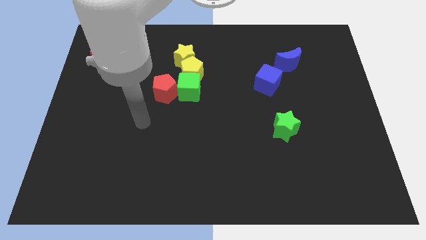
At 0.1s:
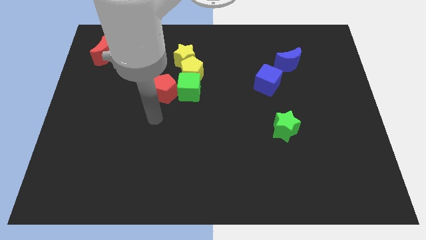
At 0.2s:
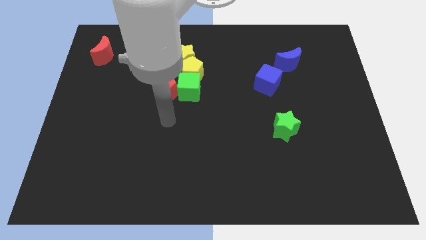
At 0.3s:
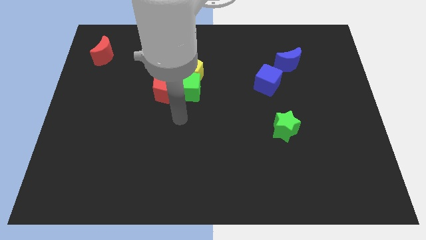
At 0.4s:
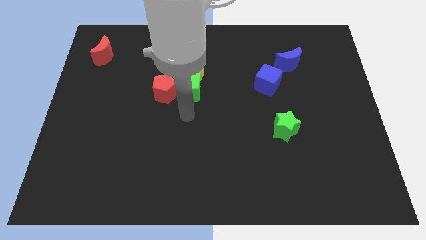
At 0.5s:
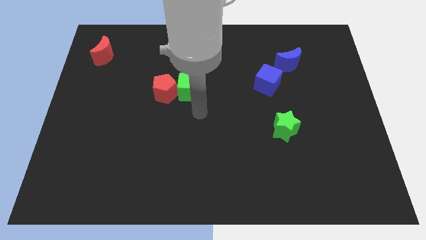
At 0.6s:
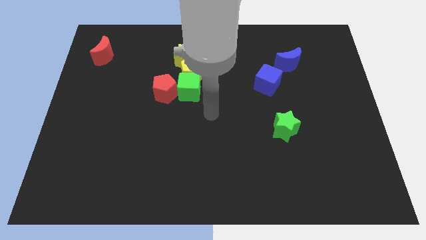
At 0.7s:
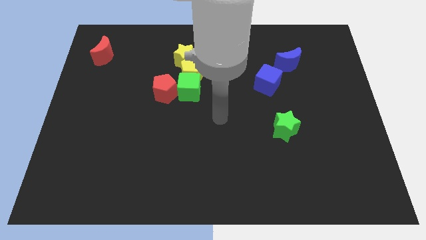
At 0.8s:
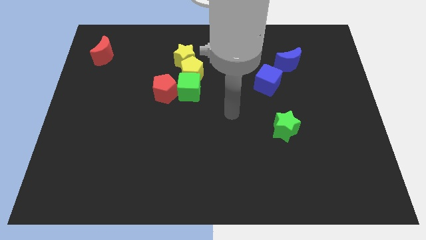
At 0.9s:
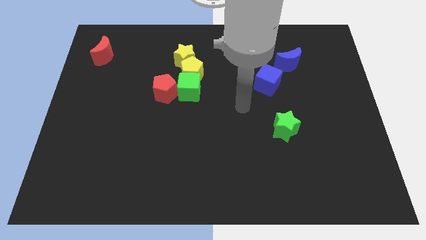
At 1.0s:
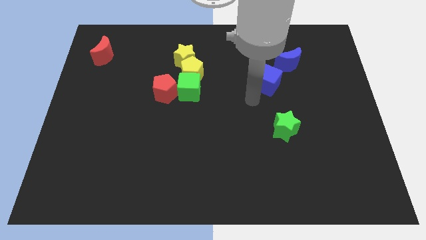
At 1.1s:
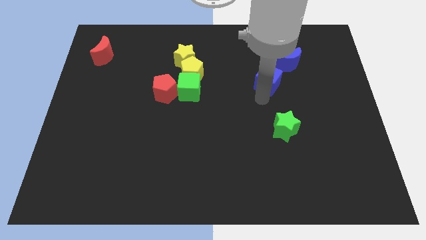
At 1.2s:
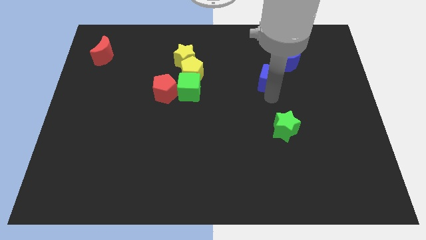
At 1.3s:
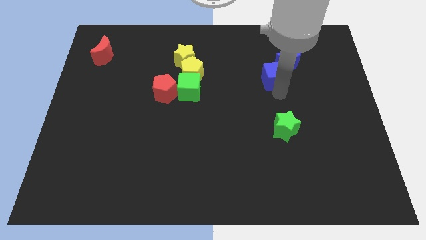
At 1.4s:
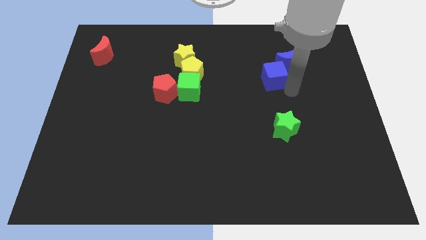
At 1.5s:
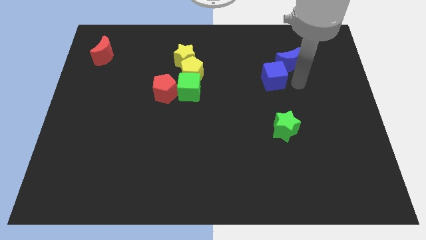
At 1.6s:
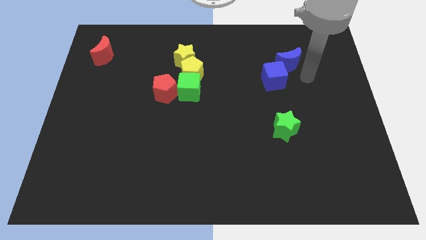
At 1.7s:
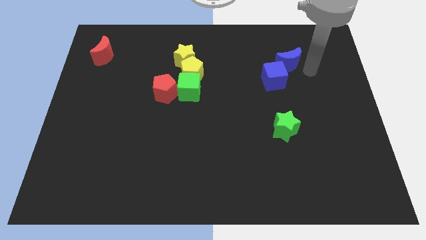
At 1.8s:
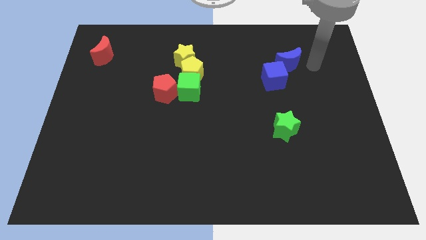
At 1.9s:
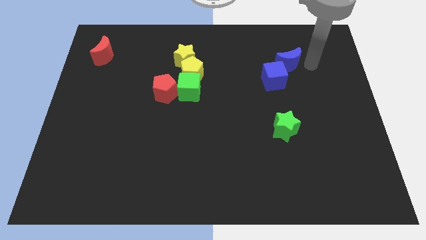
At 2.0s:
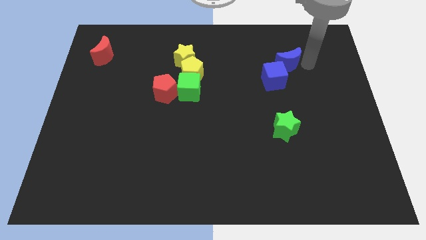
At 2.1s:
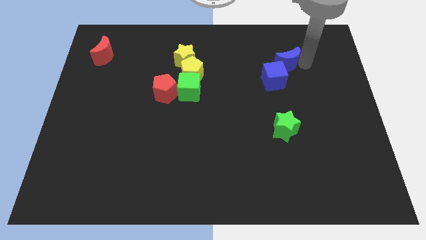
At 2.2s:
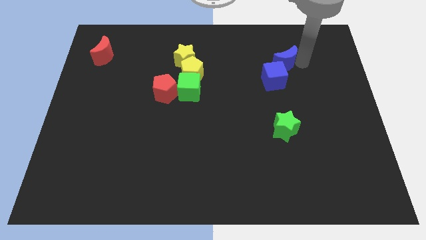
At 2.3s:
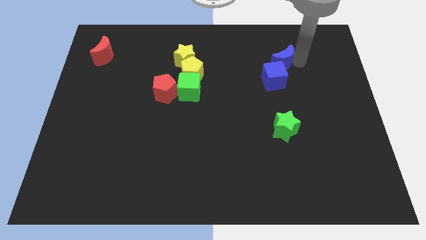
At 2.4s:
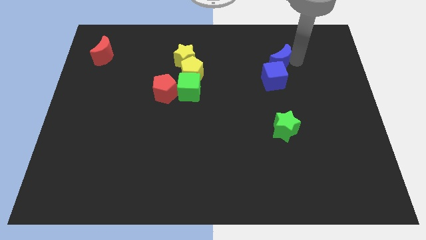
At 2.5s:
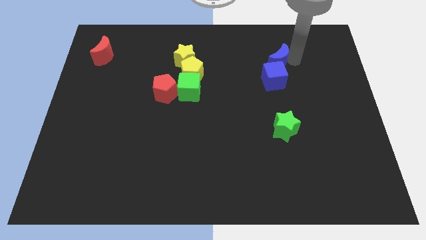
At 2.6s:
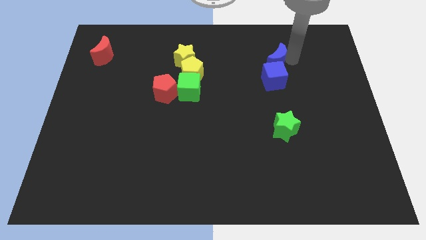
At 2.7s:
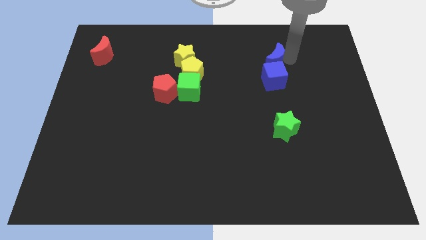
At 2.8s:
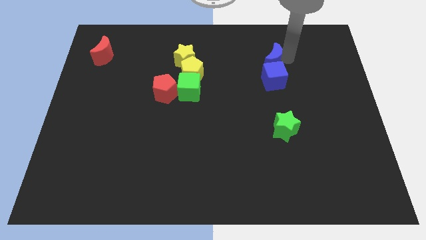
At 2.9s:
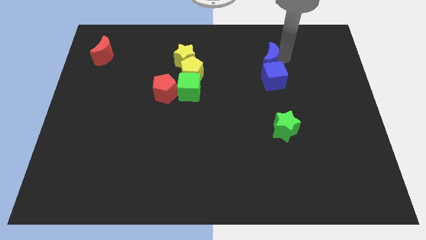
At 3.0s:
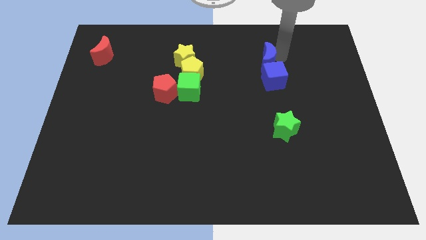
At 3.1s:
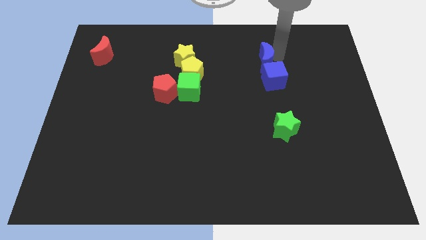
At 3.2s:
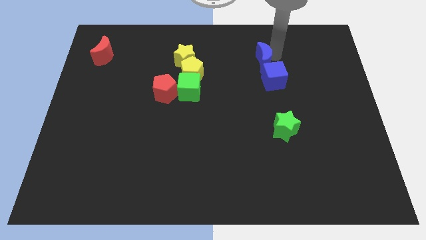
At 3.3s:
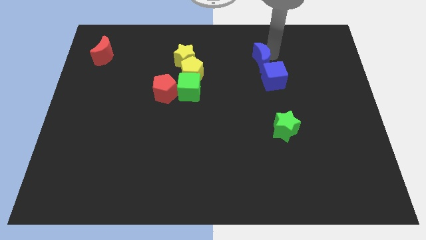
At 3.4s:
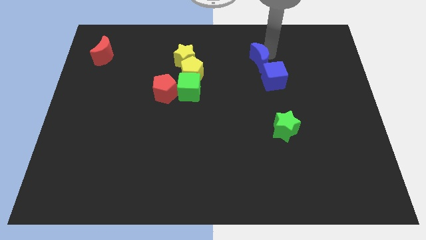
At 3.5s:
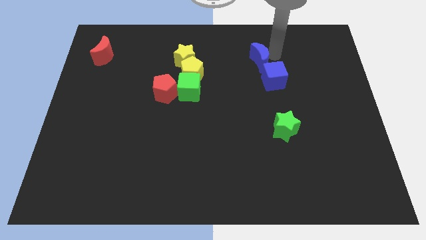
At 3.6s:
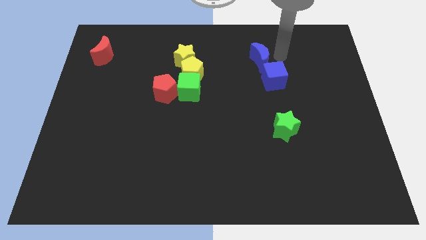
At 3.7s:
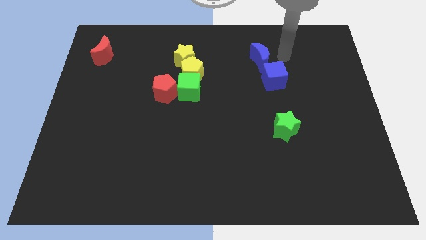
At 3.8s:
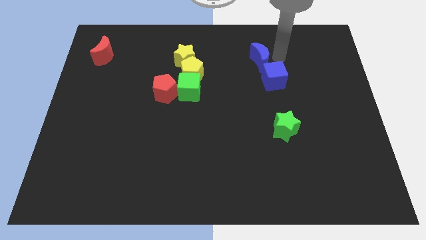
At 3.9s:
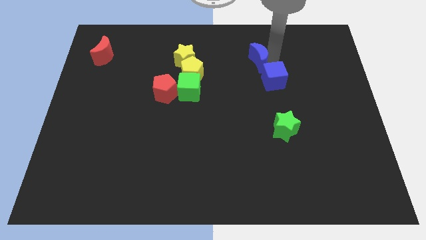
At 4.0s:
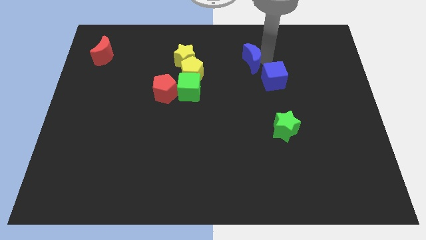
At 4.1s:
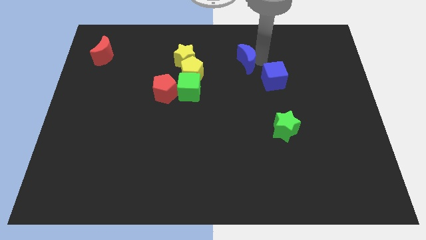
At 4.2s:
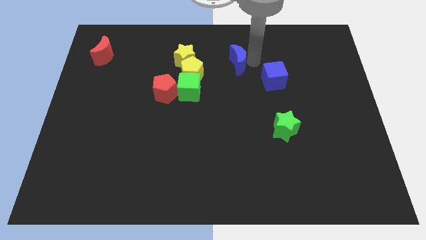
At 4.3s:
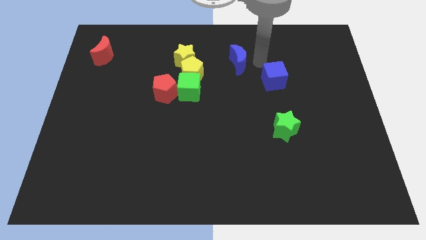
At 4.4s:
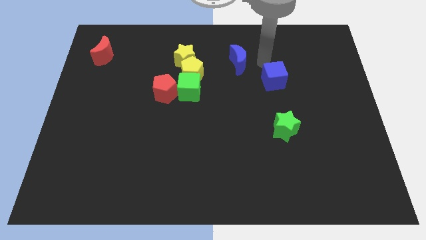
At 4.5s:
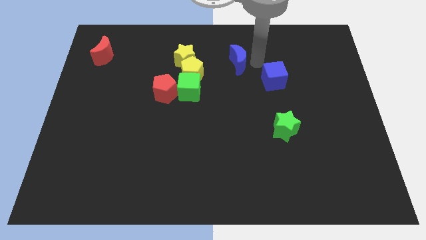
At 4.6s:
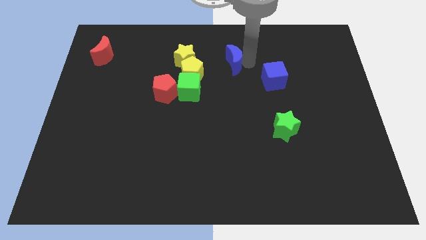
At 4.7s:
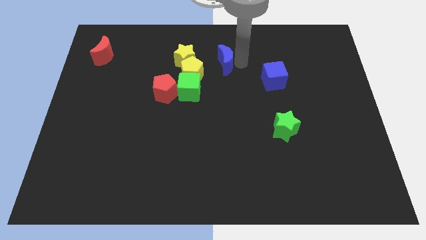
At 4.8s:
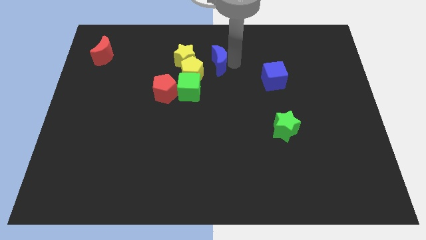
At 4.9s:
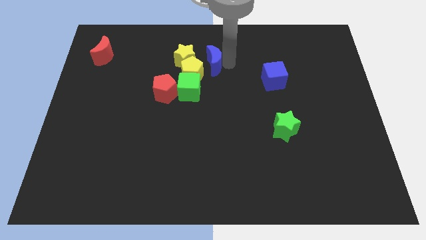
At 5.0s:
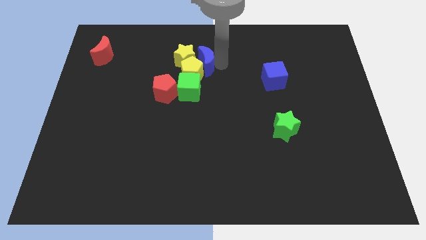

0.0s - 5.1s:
put the blue moon to the yellow star

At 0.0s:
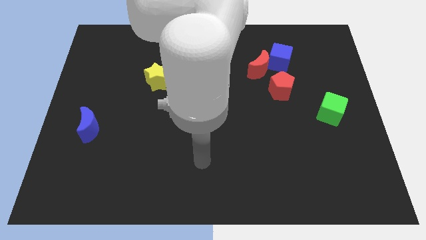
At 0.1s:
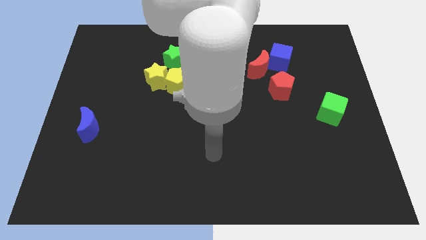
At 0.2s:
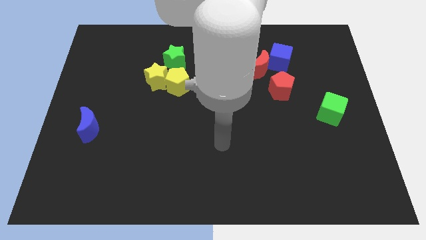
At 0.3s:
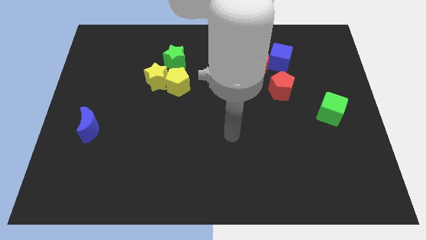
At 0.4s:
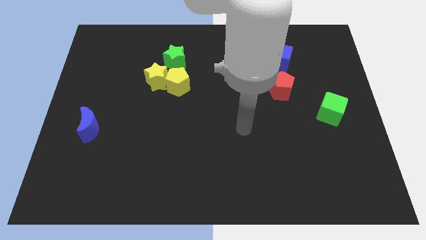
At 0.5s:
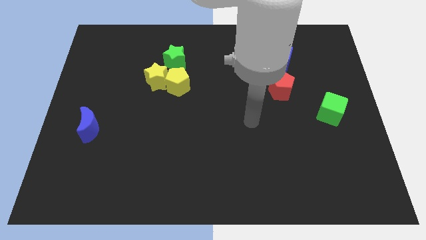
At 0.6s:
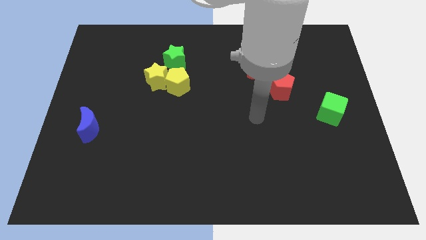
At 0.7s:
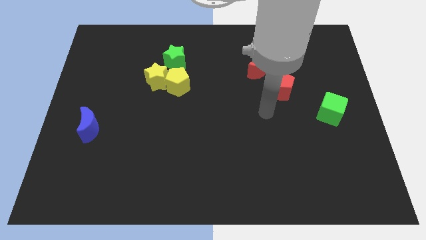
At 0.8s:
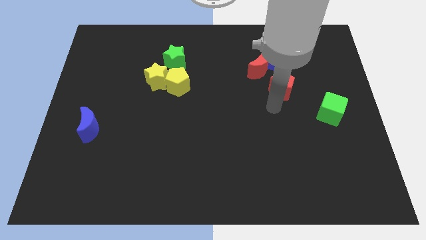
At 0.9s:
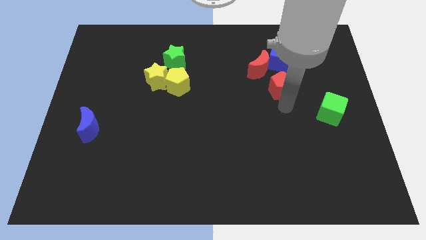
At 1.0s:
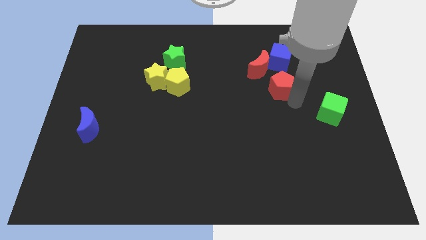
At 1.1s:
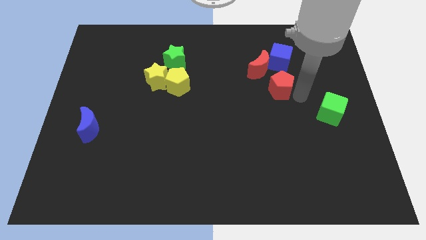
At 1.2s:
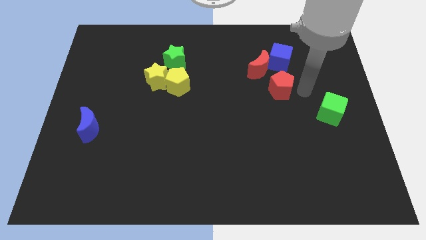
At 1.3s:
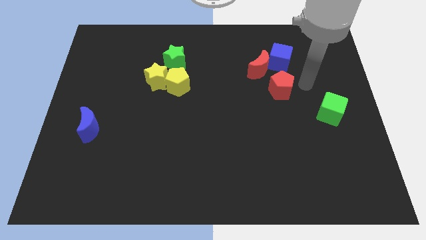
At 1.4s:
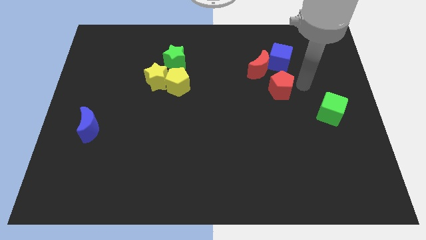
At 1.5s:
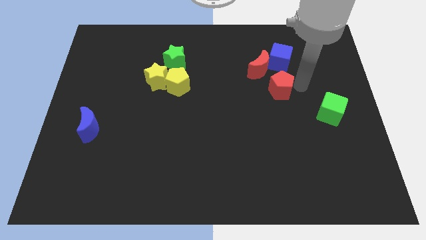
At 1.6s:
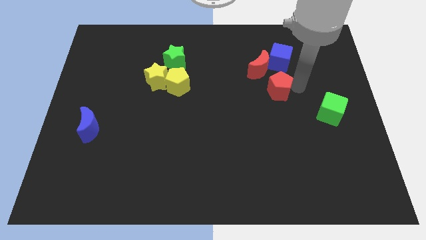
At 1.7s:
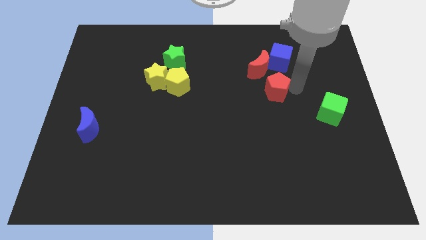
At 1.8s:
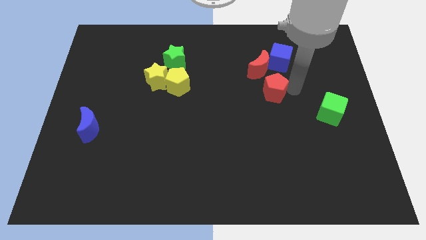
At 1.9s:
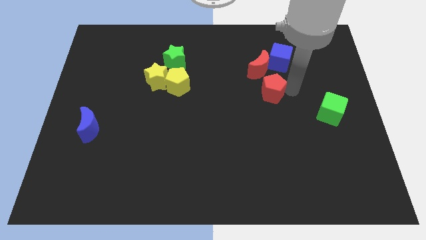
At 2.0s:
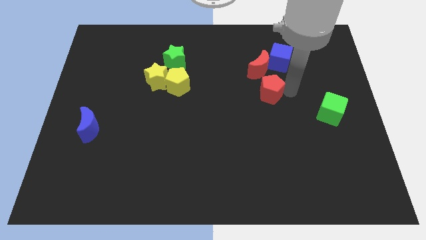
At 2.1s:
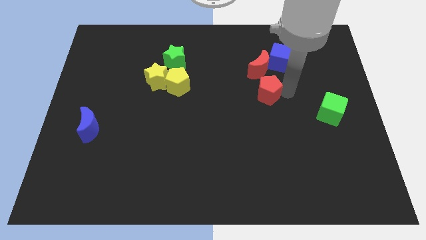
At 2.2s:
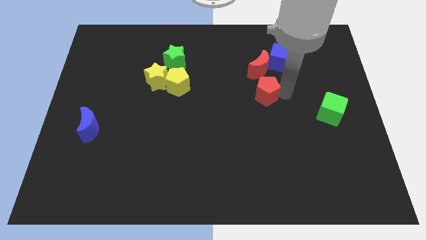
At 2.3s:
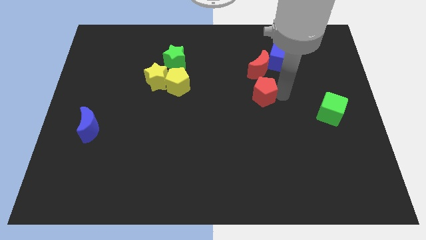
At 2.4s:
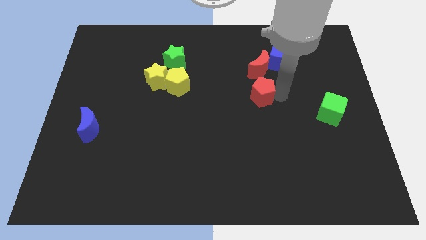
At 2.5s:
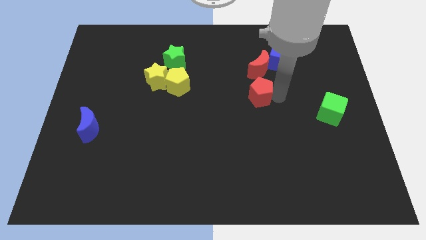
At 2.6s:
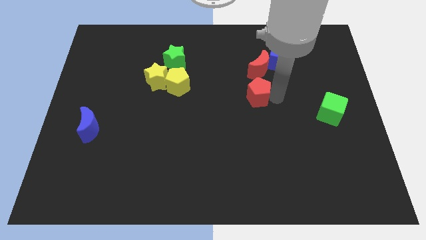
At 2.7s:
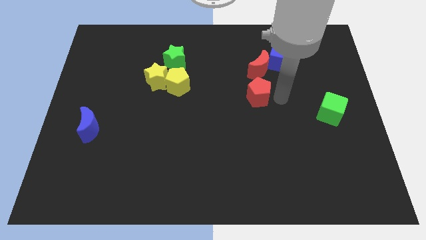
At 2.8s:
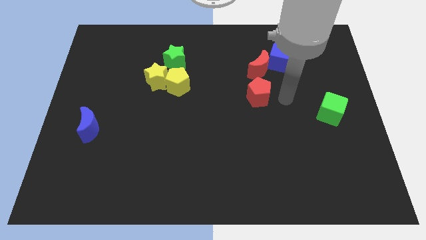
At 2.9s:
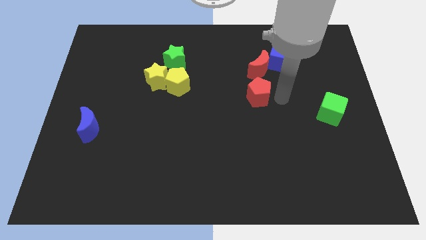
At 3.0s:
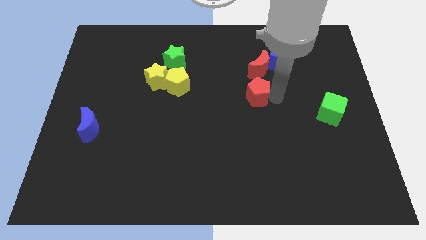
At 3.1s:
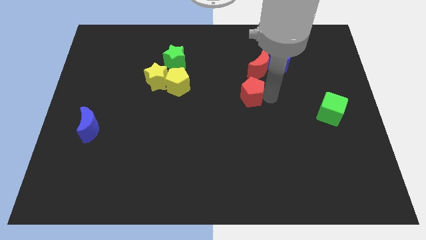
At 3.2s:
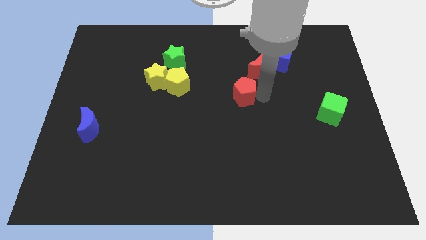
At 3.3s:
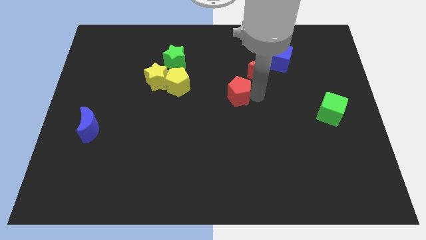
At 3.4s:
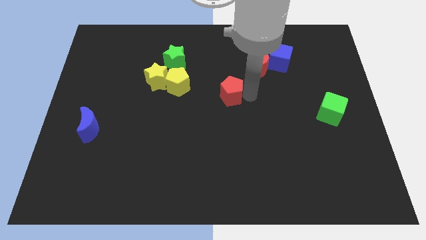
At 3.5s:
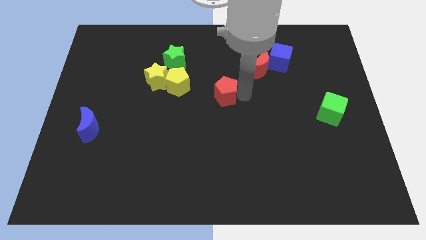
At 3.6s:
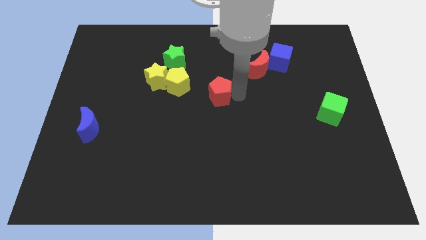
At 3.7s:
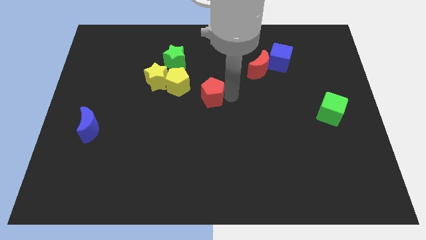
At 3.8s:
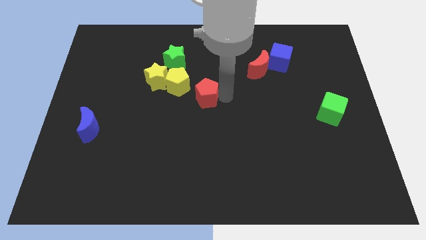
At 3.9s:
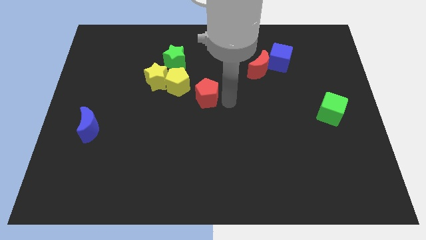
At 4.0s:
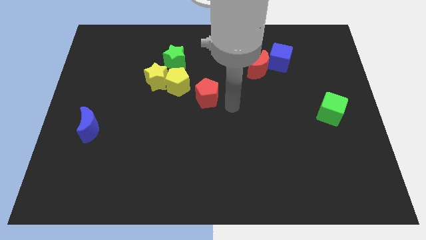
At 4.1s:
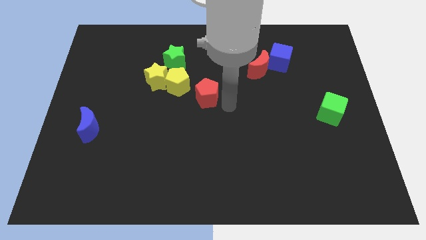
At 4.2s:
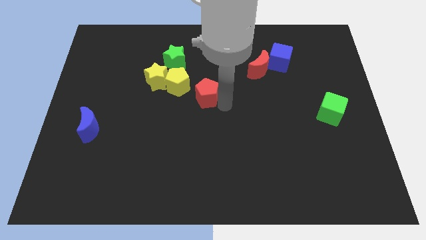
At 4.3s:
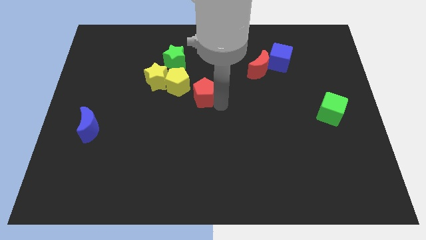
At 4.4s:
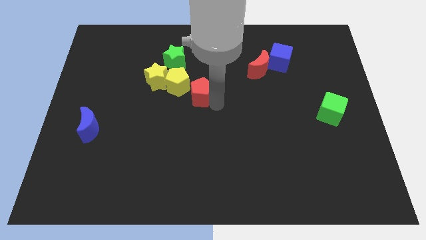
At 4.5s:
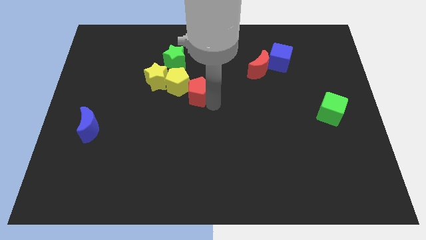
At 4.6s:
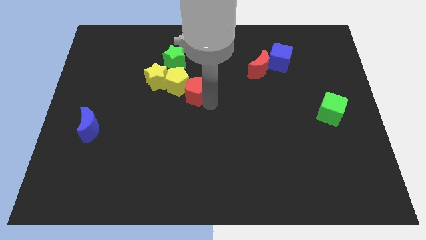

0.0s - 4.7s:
move the red pentagon next to the yellow pentagon
